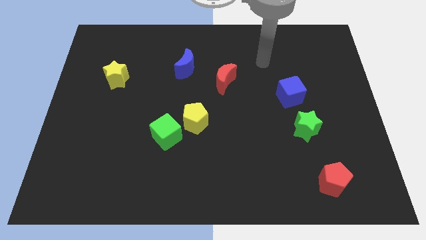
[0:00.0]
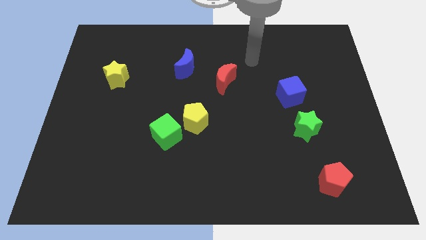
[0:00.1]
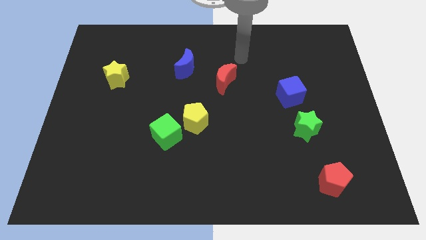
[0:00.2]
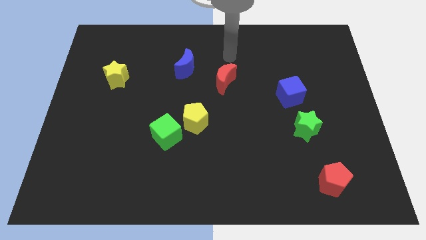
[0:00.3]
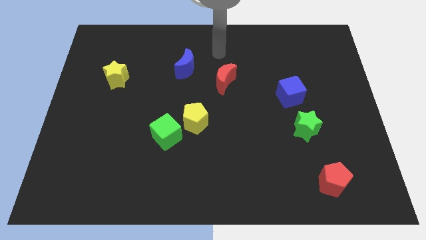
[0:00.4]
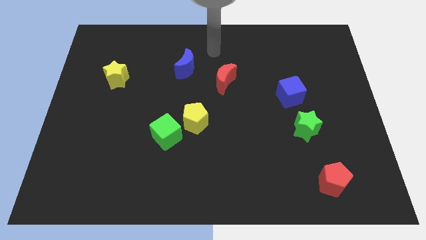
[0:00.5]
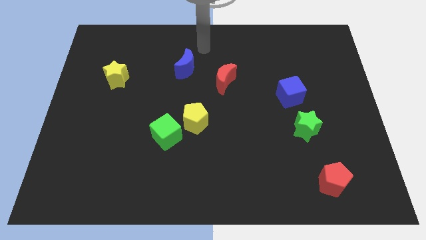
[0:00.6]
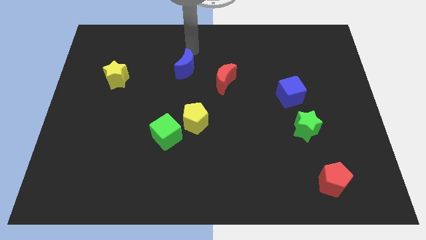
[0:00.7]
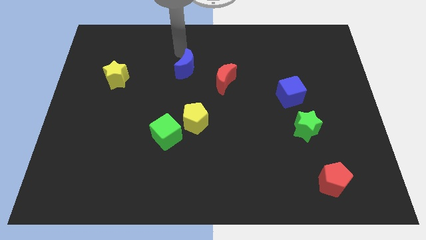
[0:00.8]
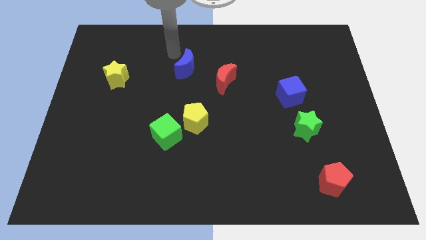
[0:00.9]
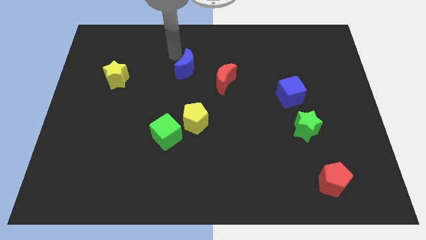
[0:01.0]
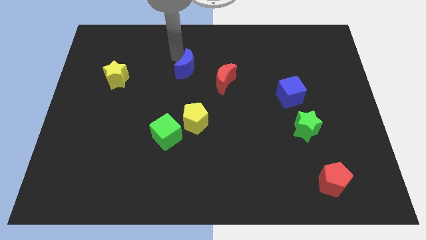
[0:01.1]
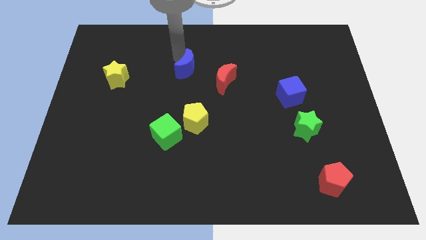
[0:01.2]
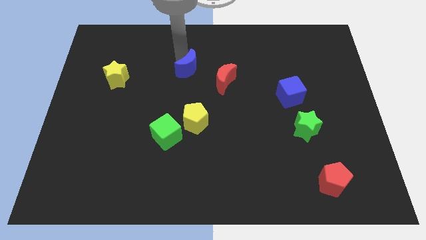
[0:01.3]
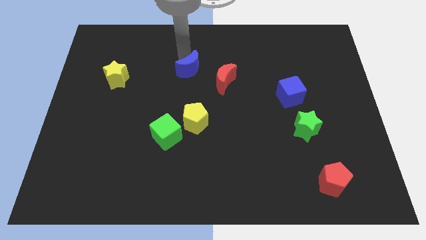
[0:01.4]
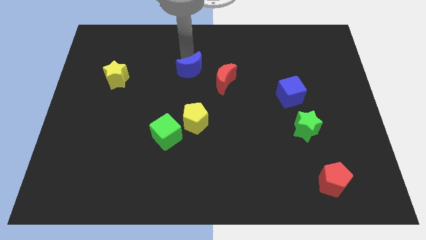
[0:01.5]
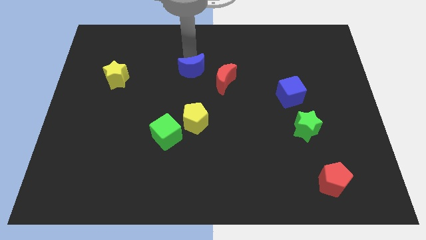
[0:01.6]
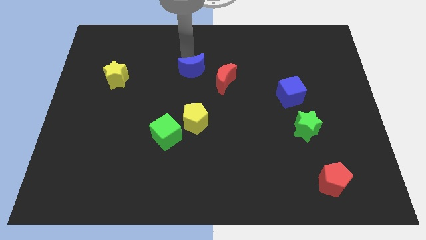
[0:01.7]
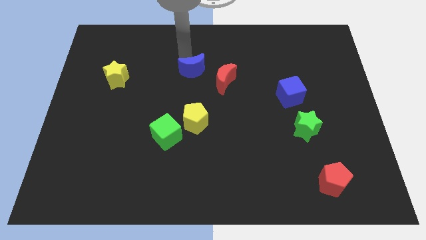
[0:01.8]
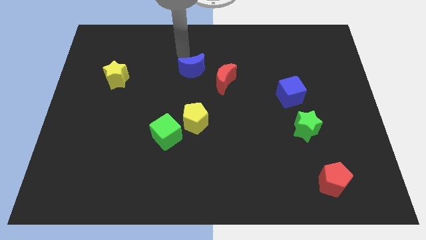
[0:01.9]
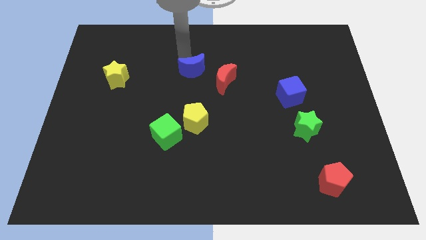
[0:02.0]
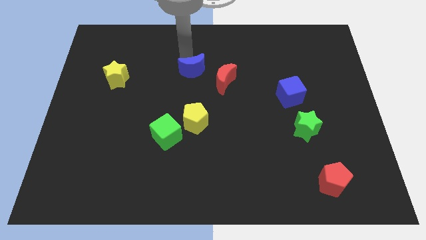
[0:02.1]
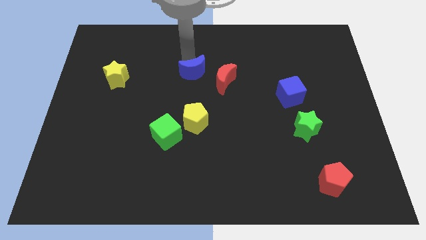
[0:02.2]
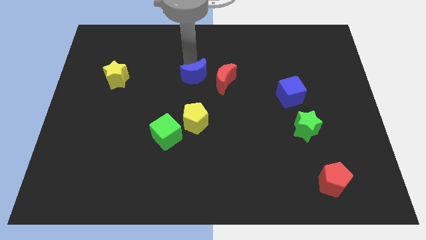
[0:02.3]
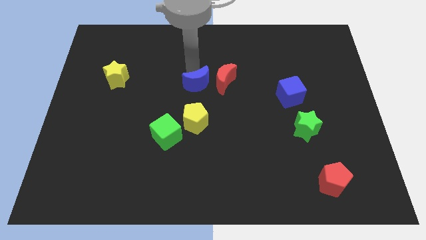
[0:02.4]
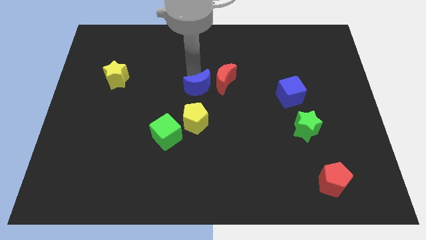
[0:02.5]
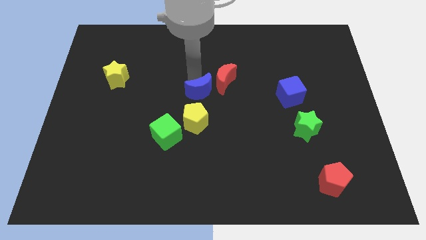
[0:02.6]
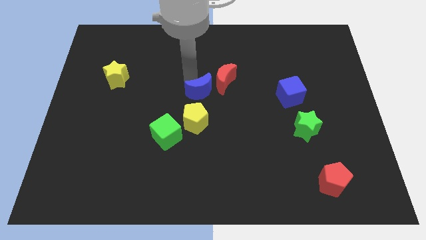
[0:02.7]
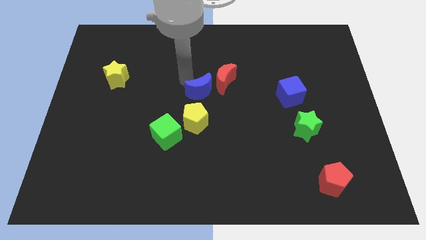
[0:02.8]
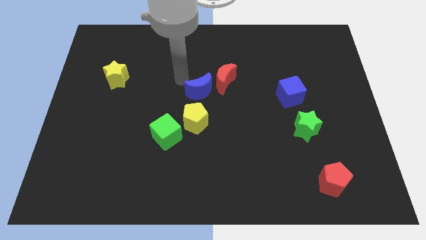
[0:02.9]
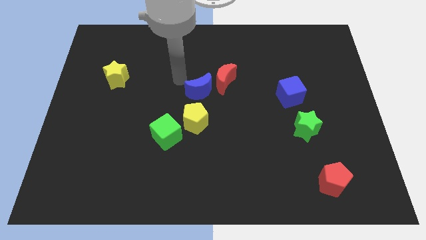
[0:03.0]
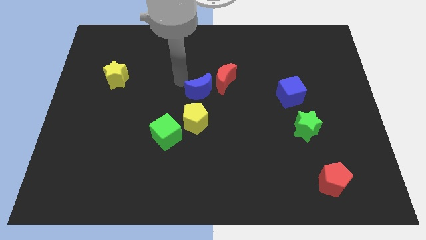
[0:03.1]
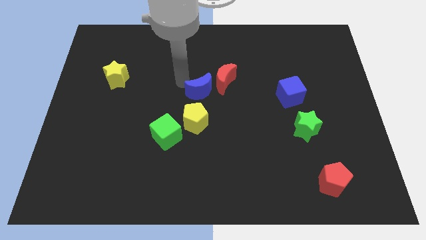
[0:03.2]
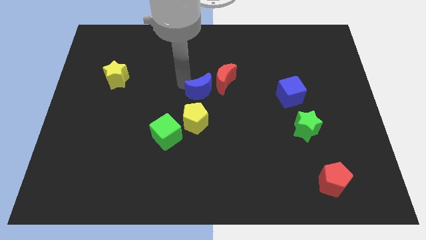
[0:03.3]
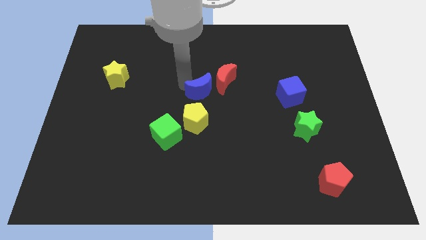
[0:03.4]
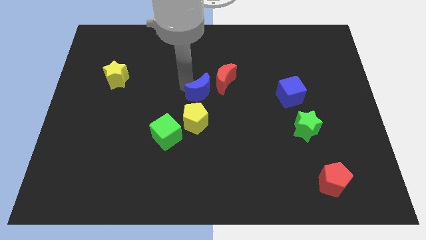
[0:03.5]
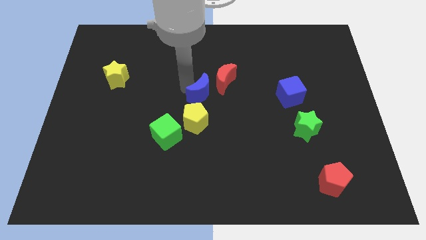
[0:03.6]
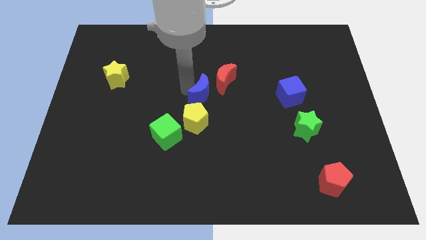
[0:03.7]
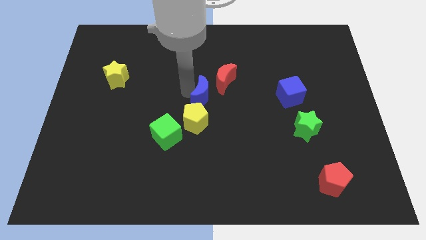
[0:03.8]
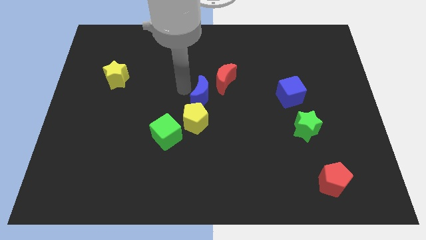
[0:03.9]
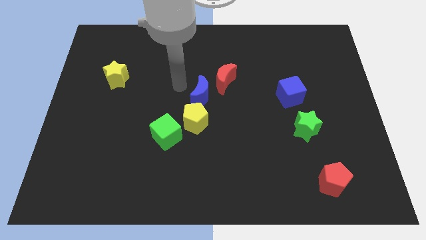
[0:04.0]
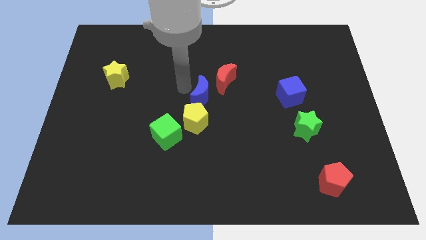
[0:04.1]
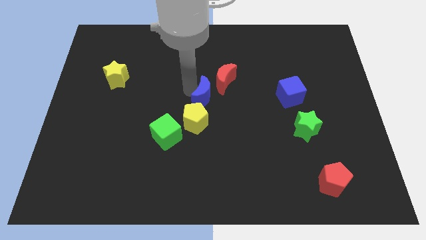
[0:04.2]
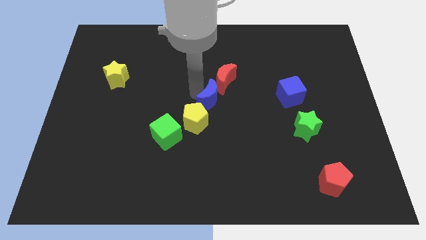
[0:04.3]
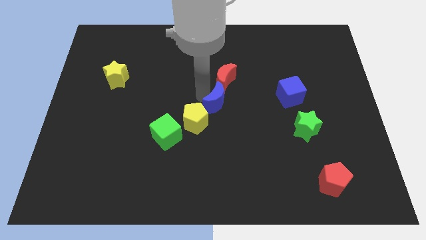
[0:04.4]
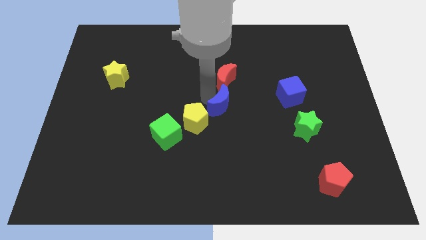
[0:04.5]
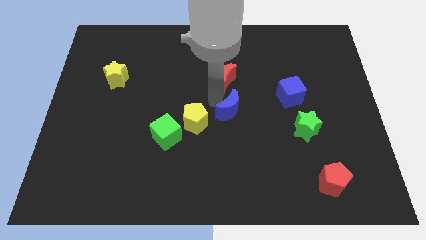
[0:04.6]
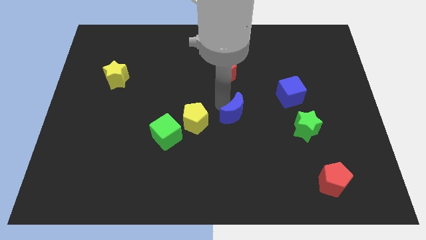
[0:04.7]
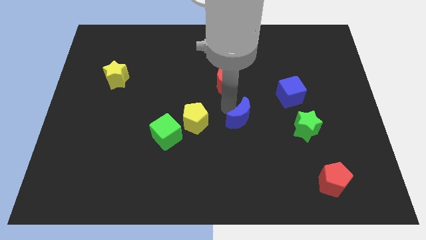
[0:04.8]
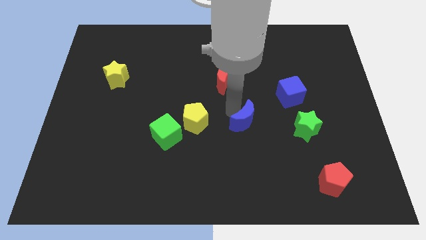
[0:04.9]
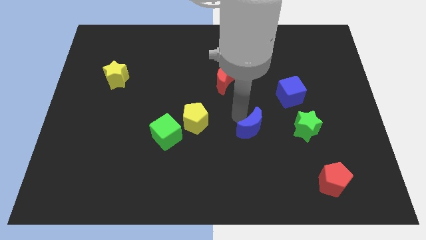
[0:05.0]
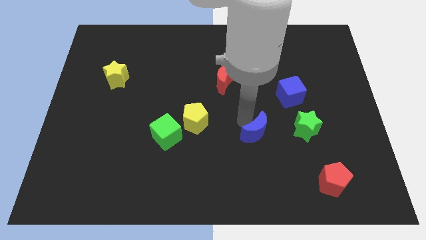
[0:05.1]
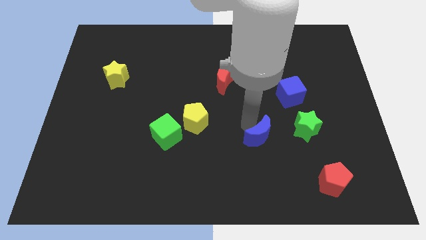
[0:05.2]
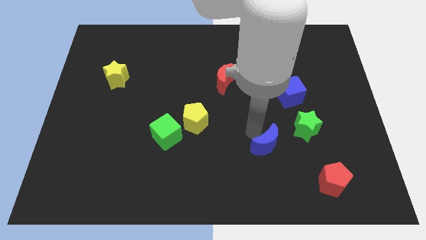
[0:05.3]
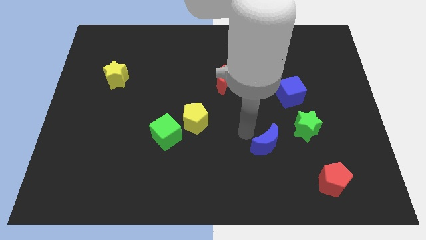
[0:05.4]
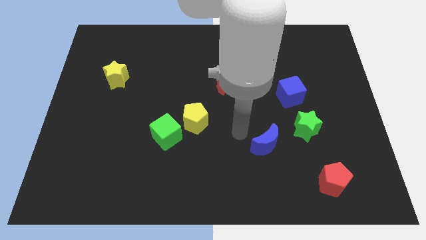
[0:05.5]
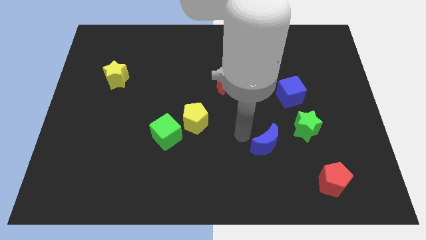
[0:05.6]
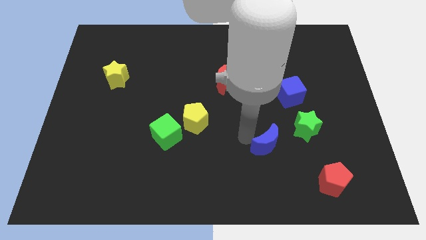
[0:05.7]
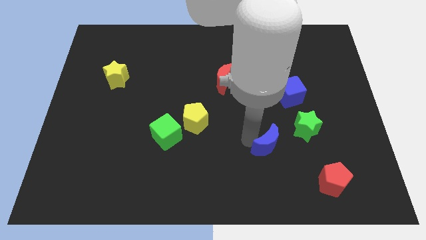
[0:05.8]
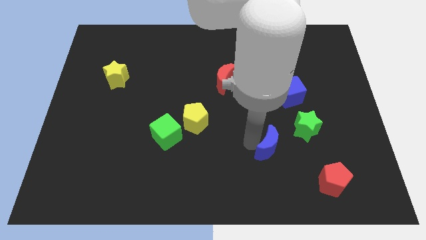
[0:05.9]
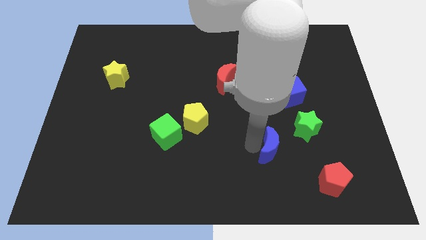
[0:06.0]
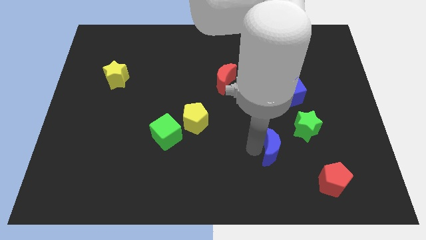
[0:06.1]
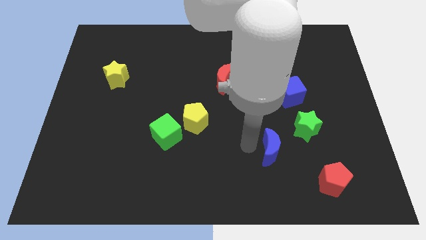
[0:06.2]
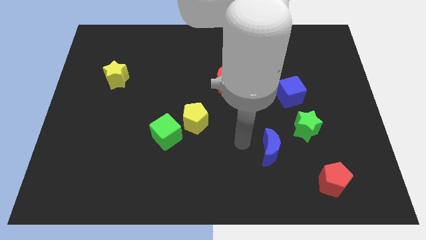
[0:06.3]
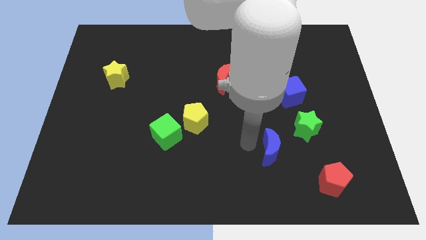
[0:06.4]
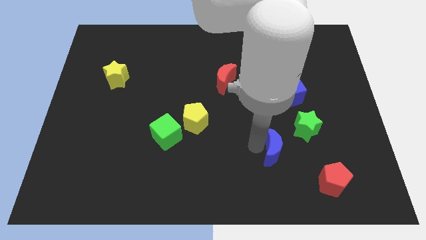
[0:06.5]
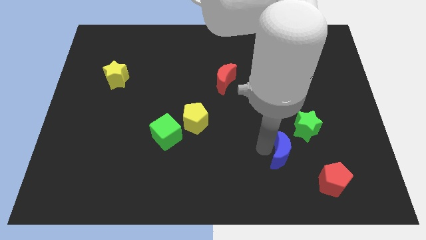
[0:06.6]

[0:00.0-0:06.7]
put the blue moon diagonally up and to the left of the red pentagon
